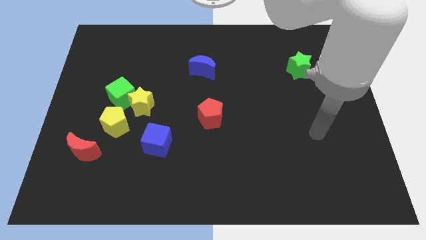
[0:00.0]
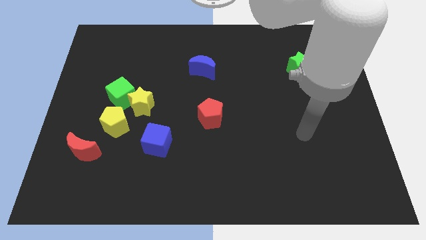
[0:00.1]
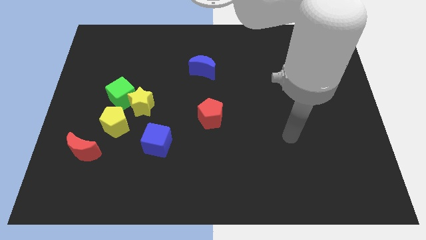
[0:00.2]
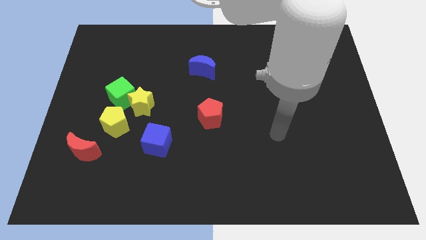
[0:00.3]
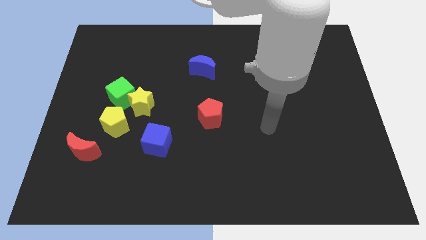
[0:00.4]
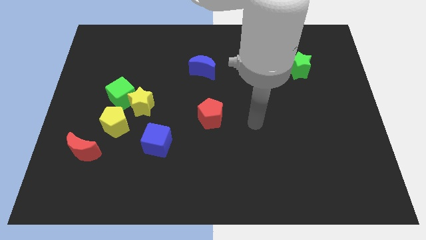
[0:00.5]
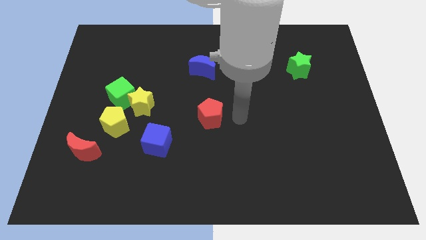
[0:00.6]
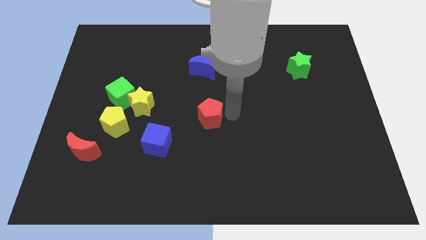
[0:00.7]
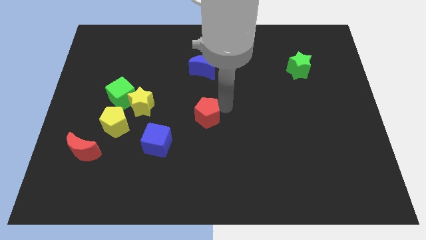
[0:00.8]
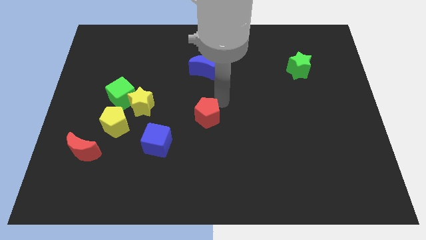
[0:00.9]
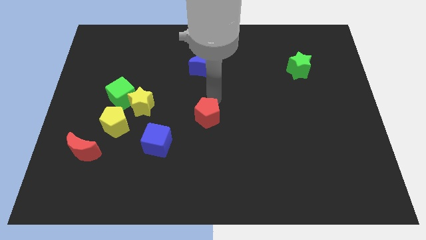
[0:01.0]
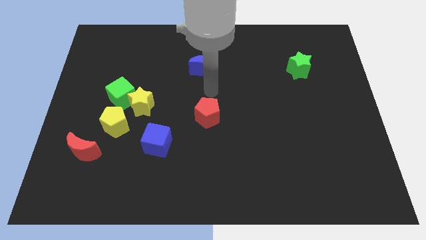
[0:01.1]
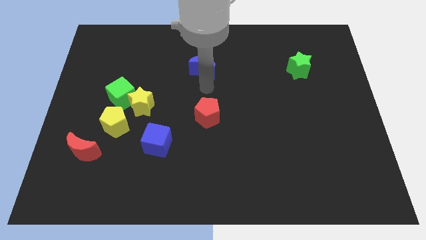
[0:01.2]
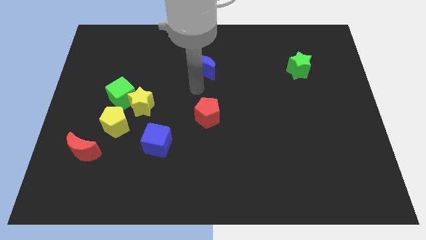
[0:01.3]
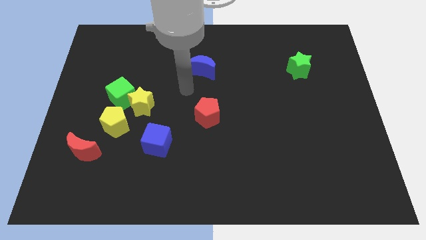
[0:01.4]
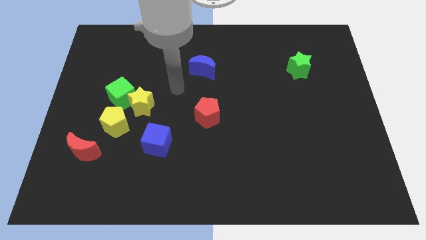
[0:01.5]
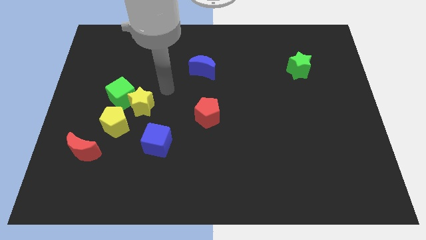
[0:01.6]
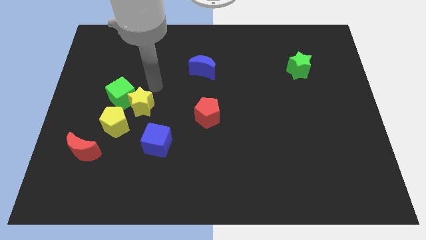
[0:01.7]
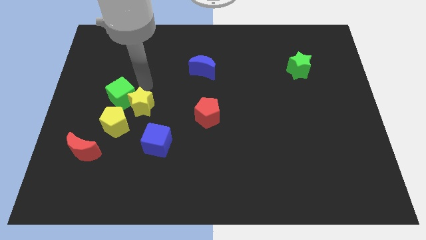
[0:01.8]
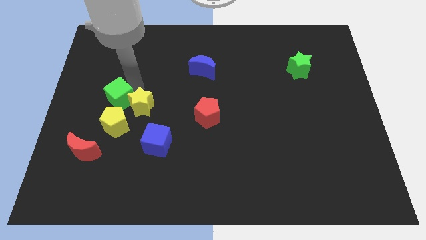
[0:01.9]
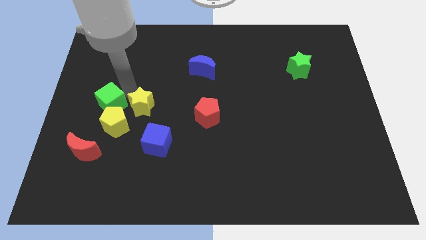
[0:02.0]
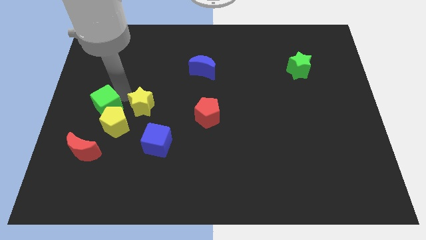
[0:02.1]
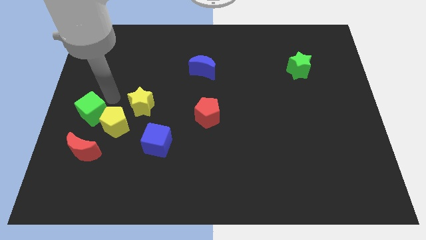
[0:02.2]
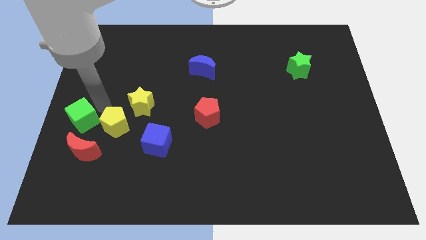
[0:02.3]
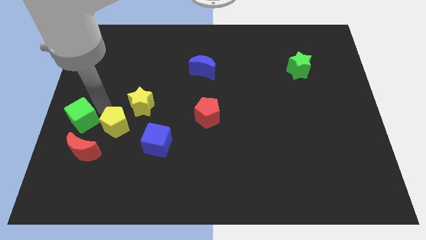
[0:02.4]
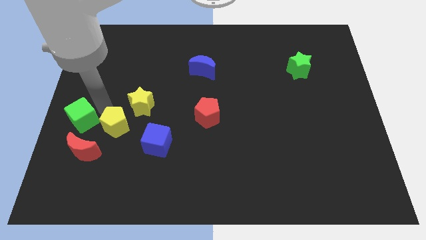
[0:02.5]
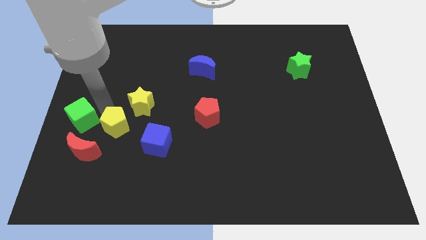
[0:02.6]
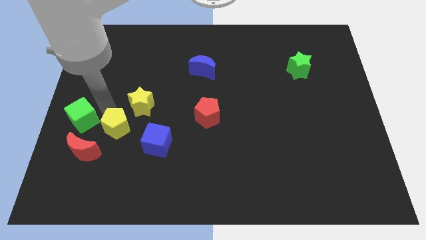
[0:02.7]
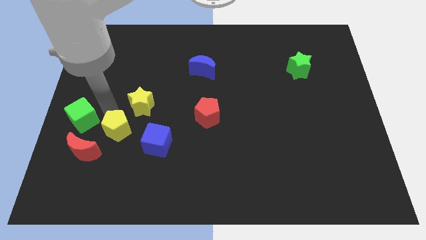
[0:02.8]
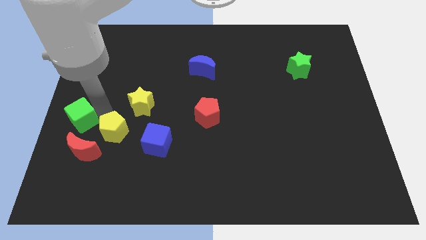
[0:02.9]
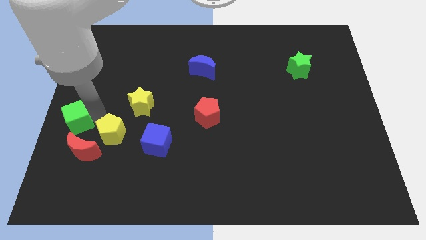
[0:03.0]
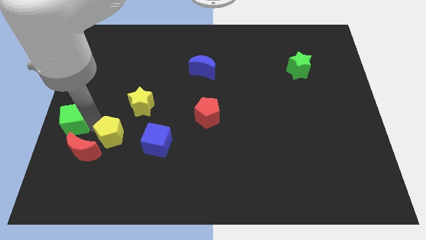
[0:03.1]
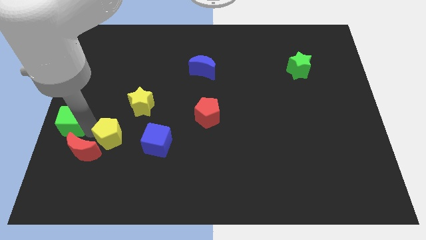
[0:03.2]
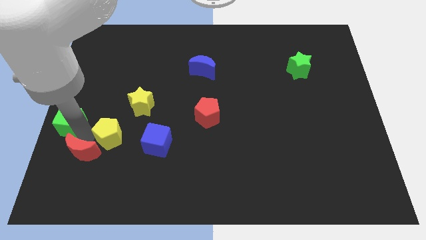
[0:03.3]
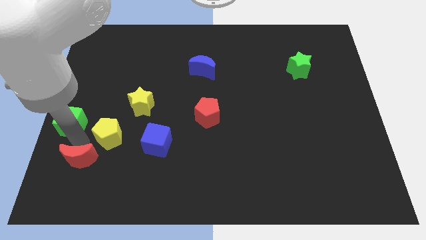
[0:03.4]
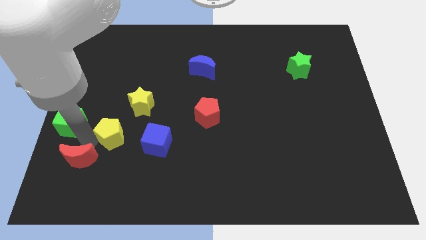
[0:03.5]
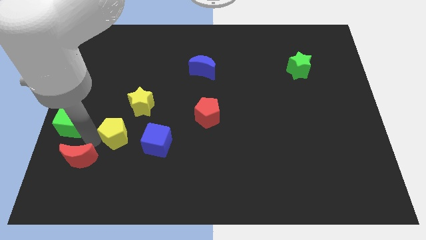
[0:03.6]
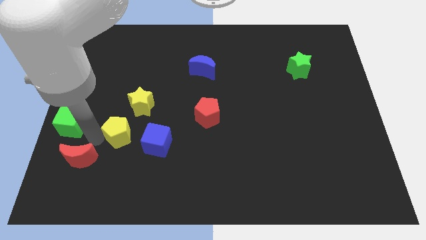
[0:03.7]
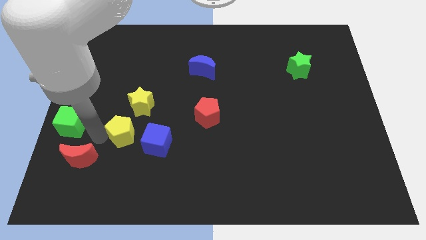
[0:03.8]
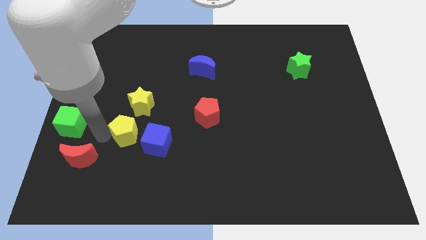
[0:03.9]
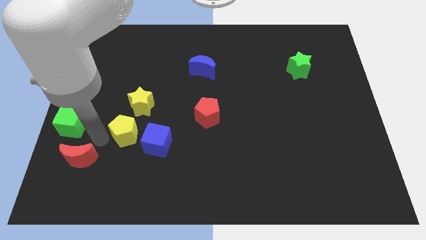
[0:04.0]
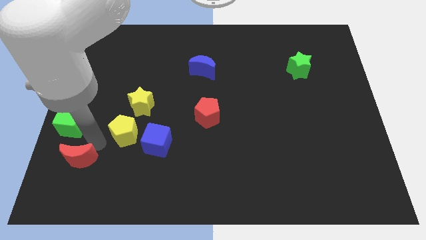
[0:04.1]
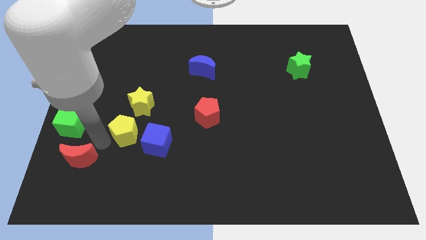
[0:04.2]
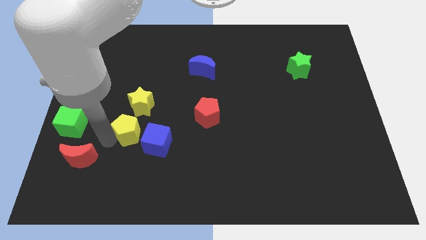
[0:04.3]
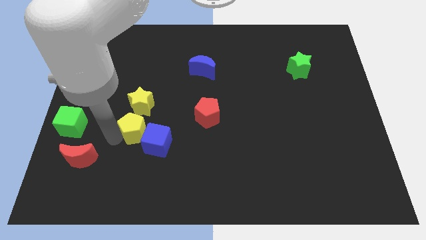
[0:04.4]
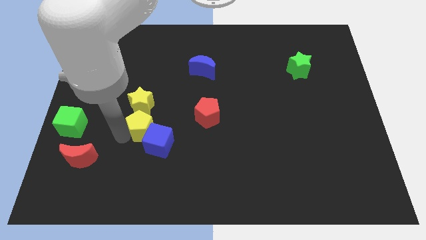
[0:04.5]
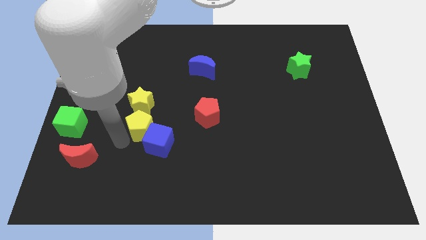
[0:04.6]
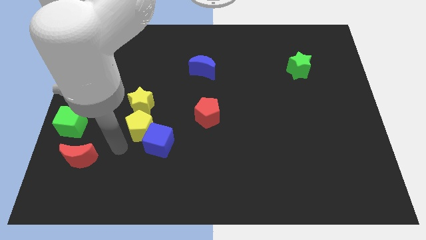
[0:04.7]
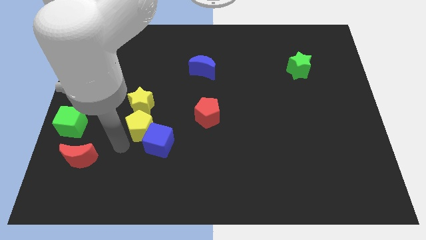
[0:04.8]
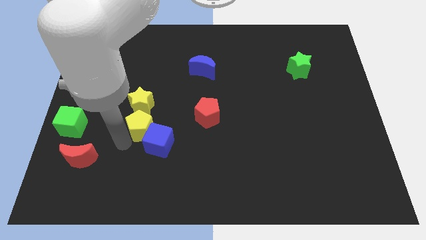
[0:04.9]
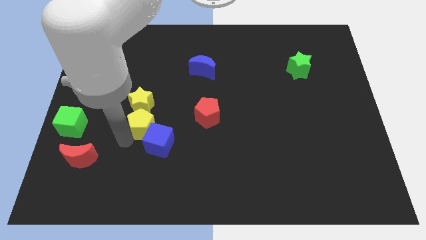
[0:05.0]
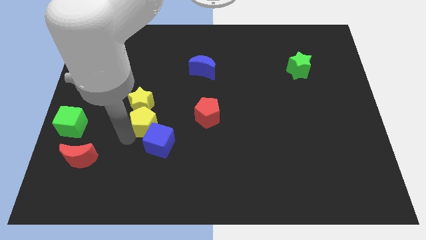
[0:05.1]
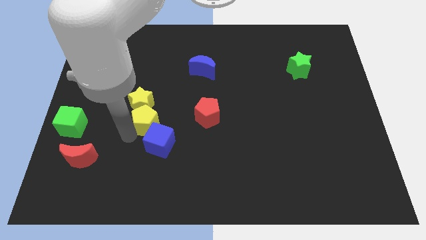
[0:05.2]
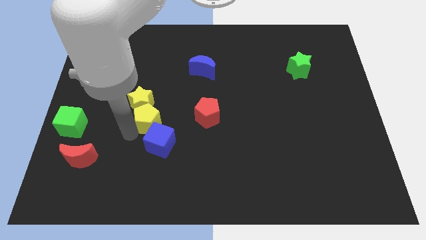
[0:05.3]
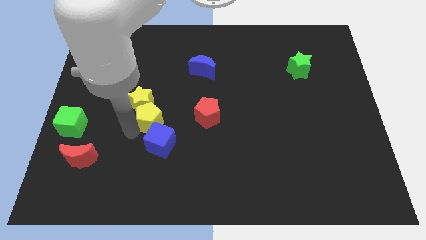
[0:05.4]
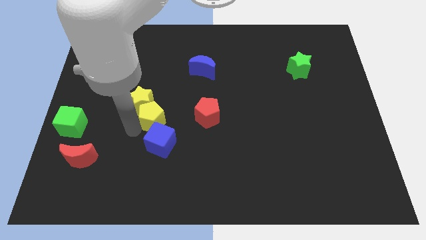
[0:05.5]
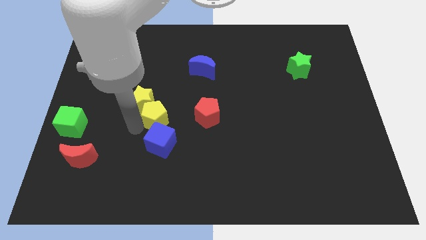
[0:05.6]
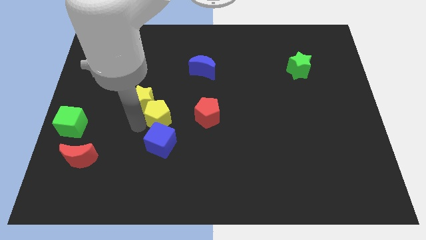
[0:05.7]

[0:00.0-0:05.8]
move the yellow pentagon somewhat diagonally up and right

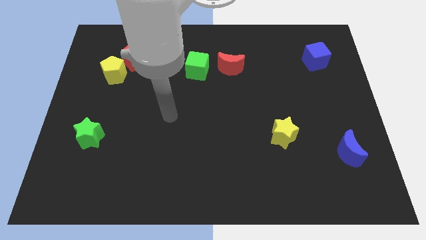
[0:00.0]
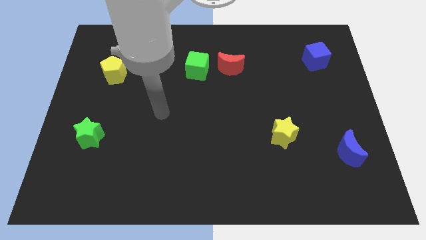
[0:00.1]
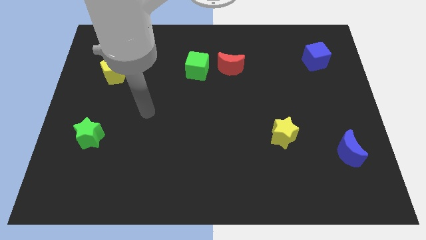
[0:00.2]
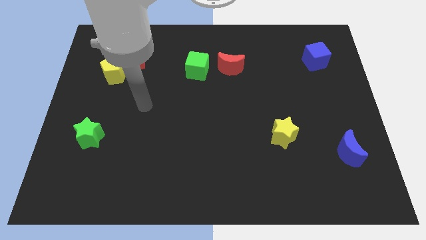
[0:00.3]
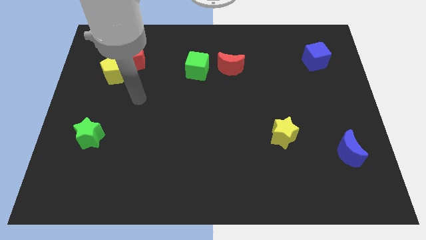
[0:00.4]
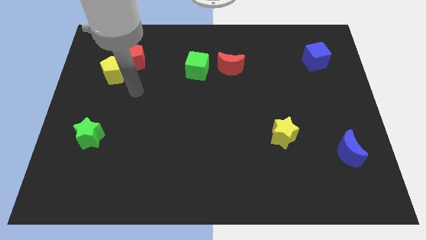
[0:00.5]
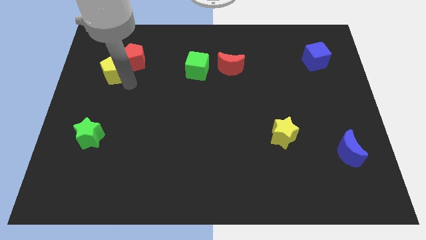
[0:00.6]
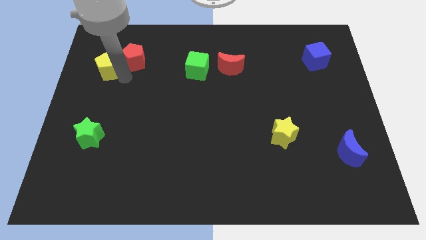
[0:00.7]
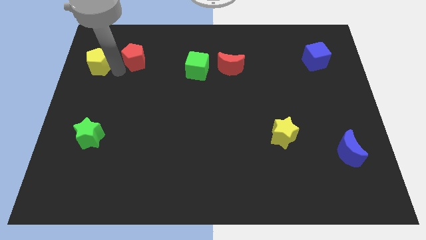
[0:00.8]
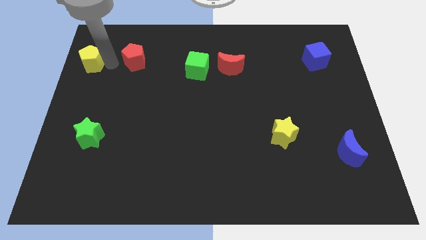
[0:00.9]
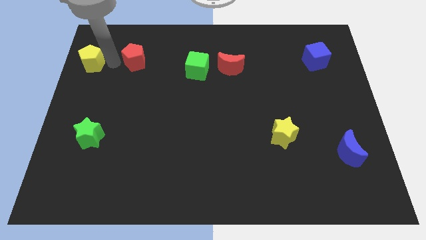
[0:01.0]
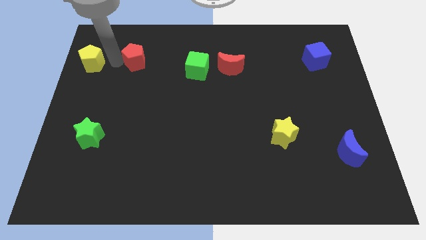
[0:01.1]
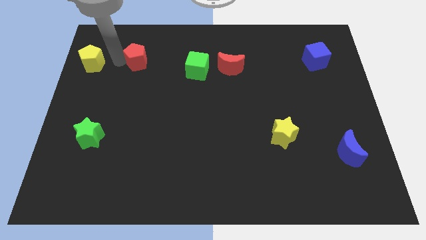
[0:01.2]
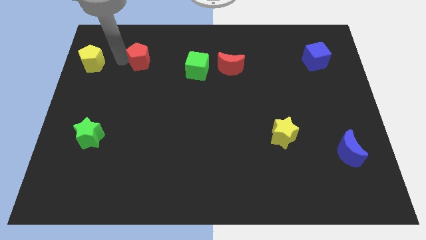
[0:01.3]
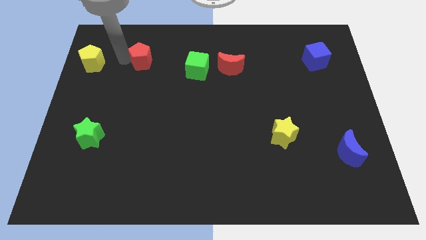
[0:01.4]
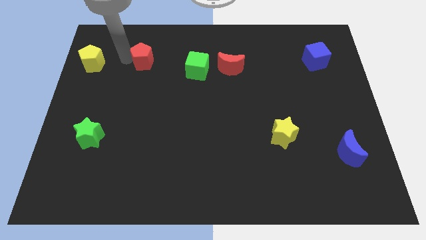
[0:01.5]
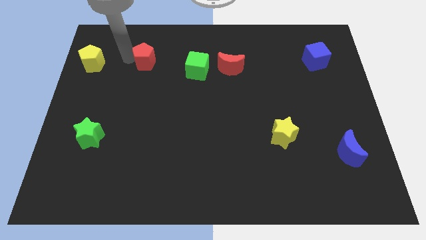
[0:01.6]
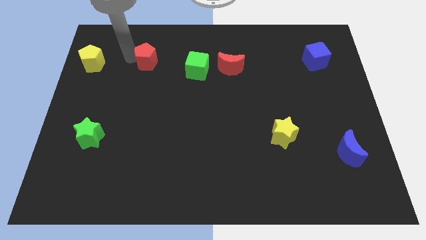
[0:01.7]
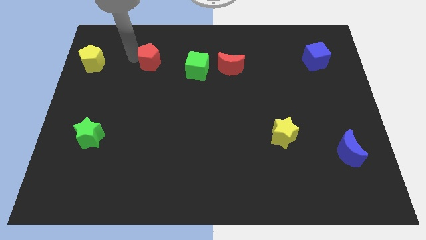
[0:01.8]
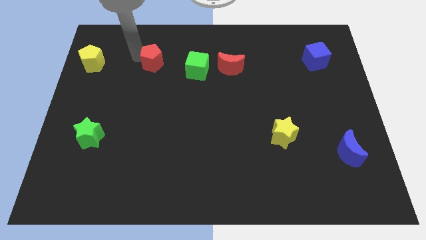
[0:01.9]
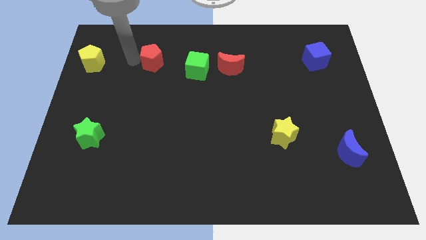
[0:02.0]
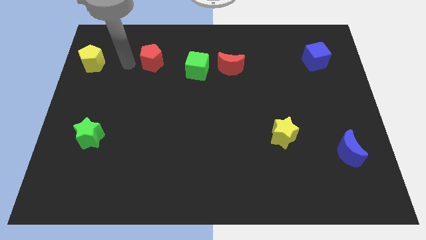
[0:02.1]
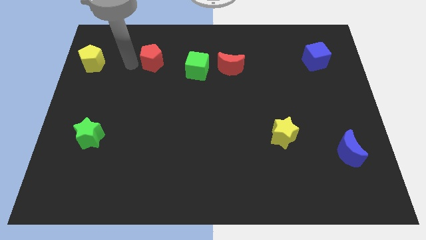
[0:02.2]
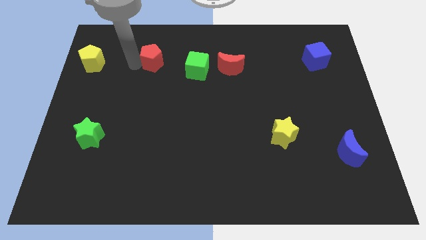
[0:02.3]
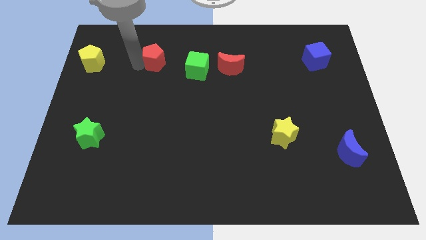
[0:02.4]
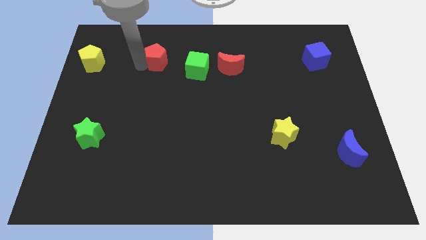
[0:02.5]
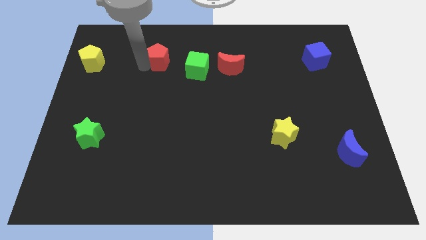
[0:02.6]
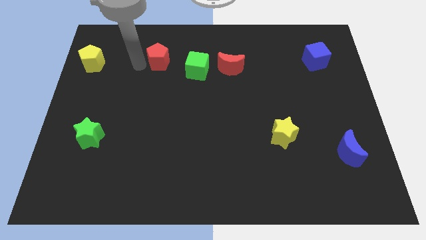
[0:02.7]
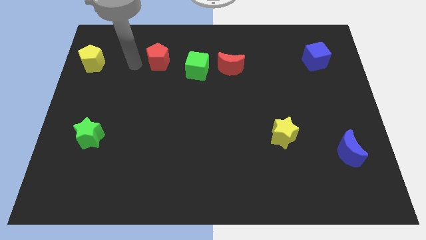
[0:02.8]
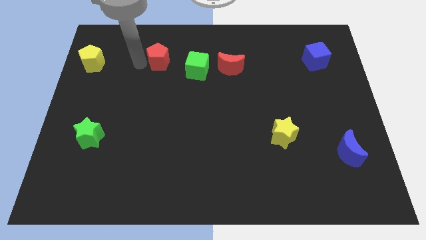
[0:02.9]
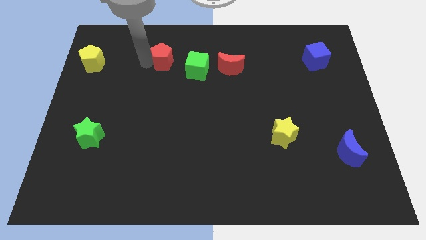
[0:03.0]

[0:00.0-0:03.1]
slide the red pentagon to the right somewhat
